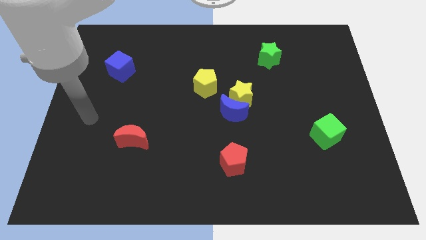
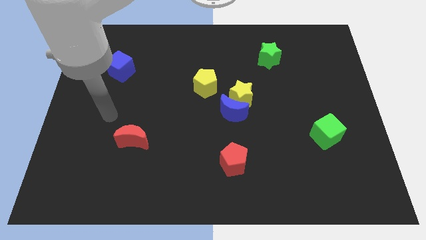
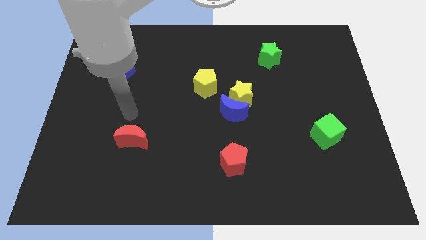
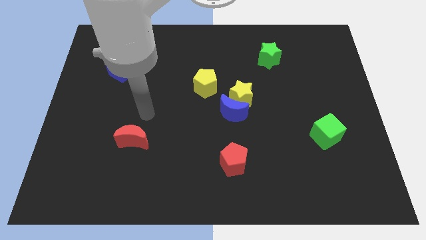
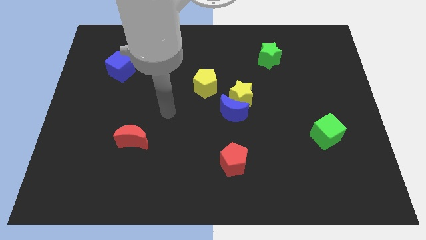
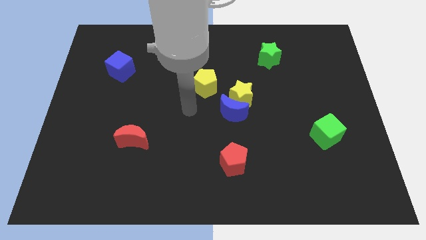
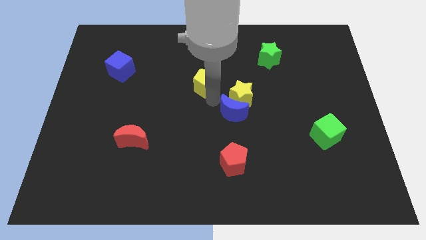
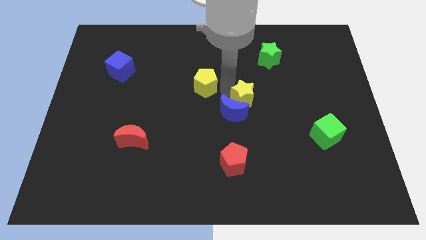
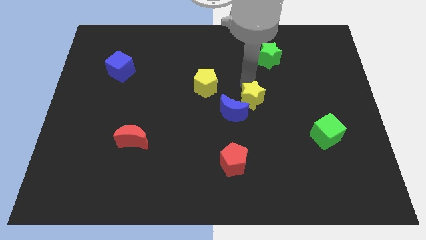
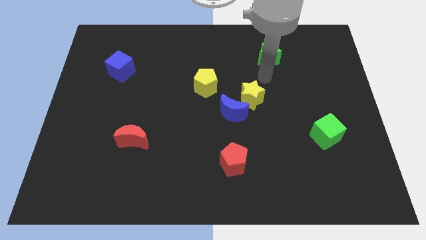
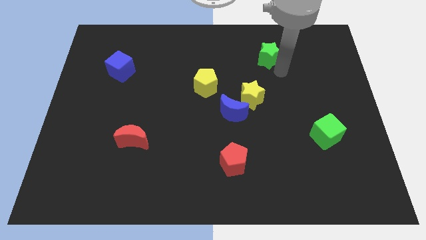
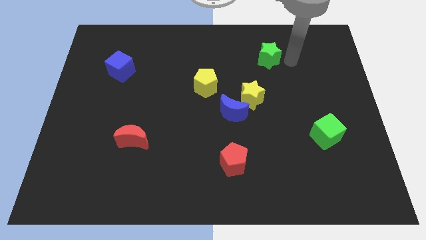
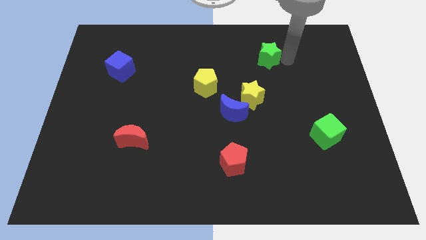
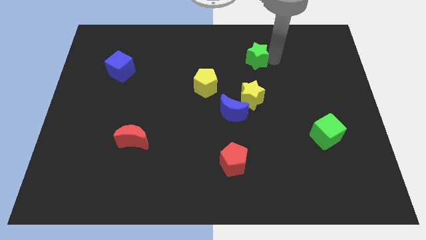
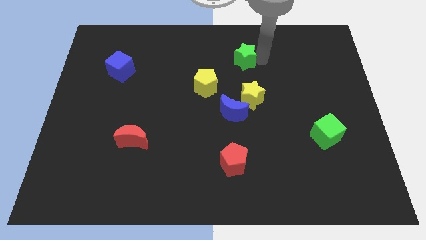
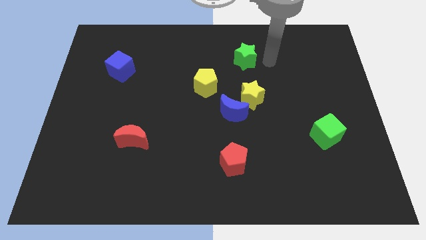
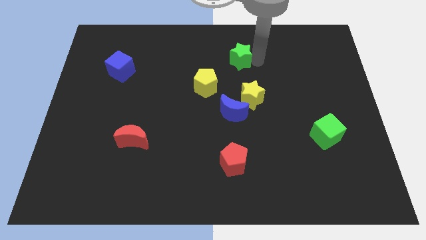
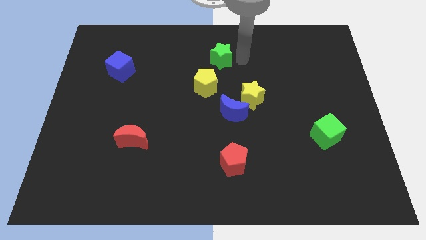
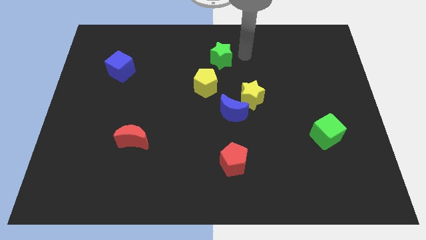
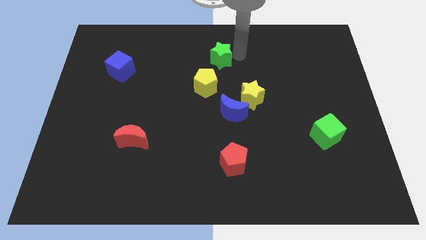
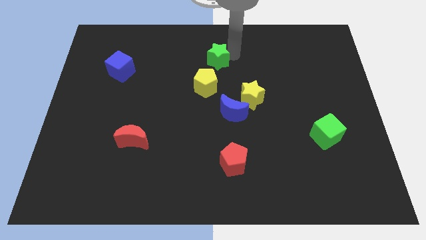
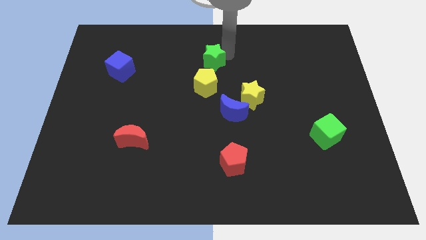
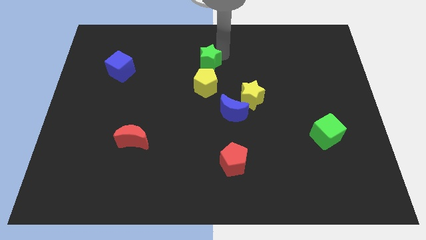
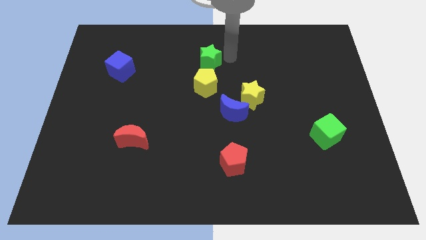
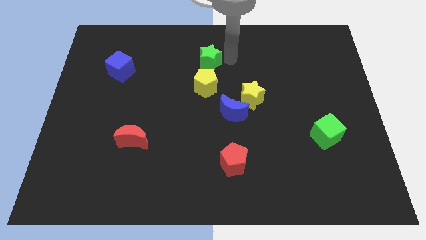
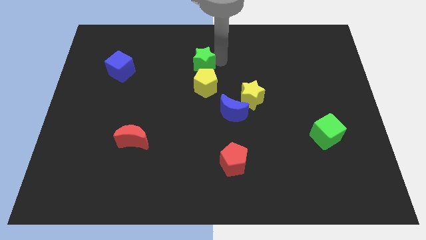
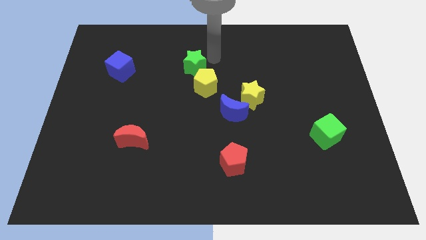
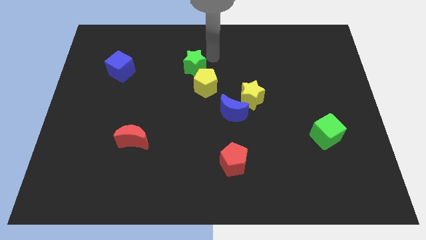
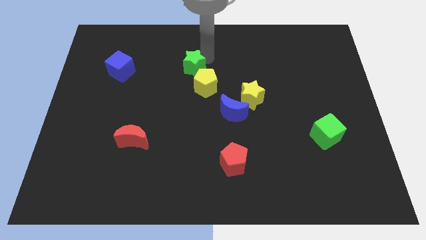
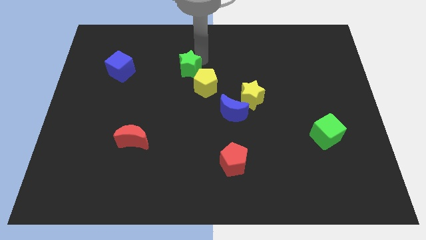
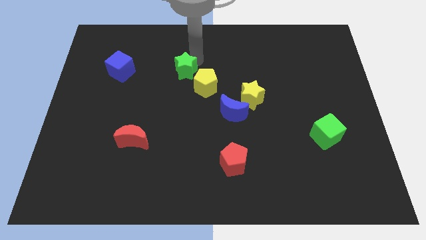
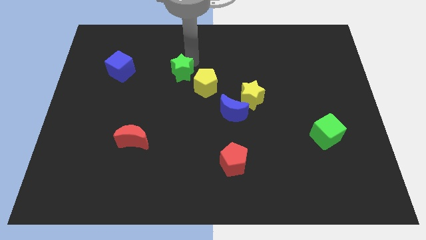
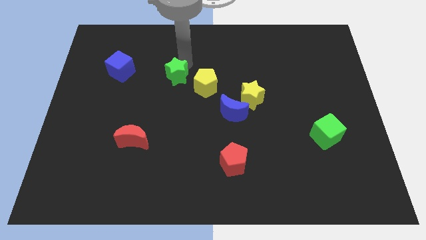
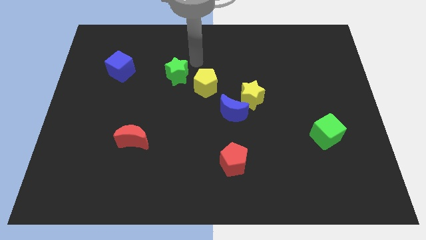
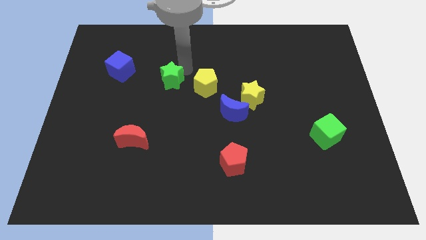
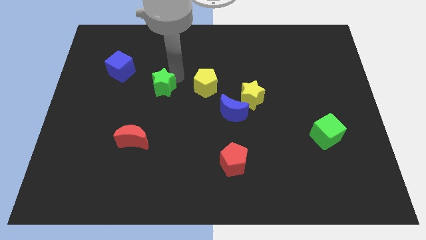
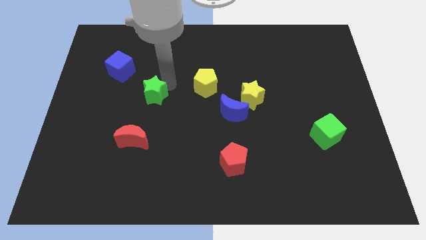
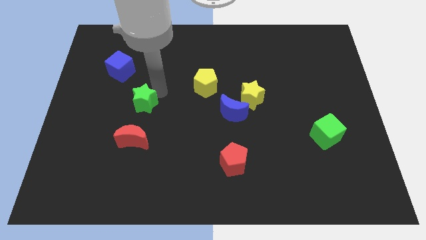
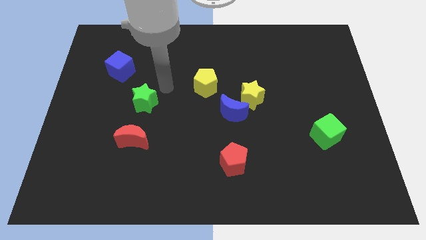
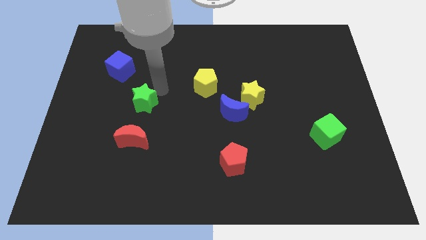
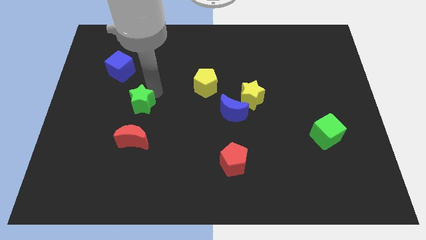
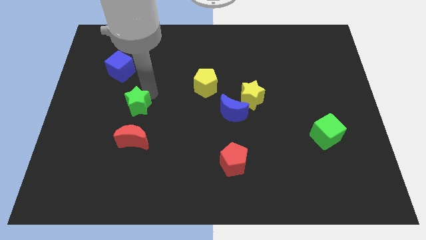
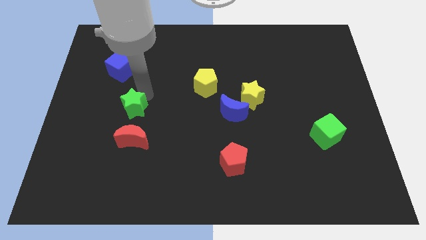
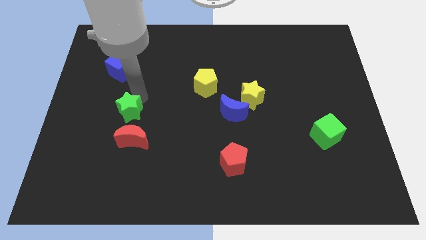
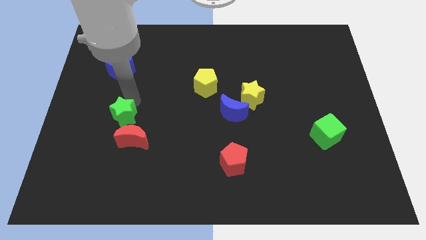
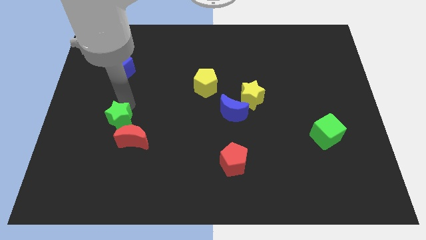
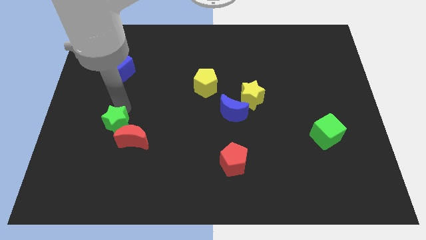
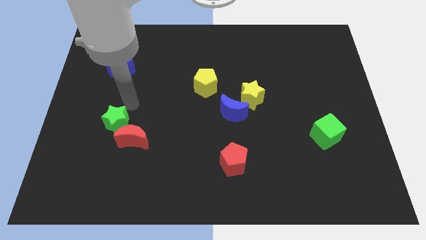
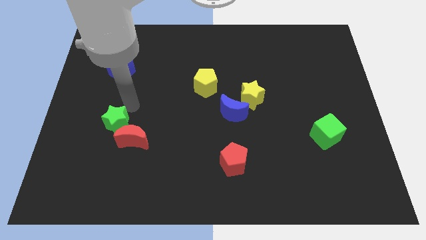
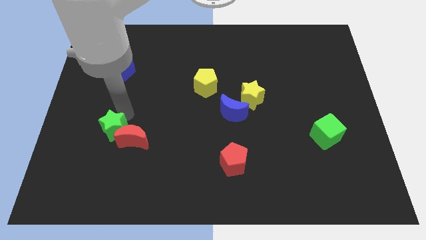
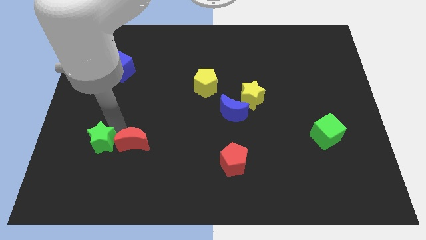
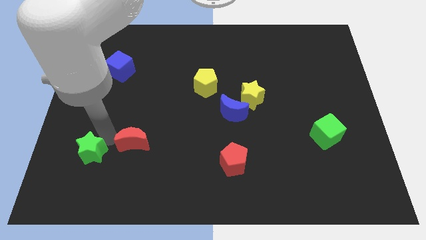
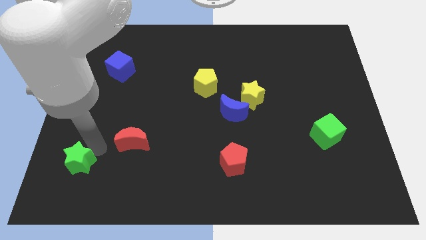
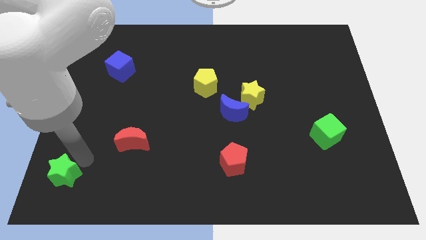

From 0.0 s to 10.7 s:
push the green star to the bottom left corner

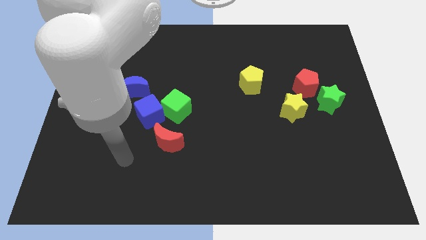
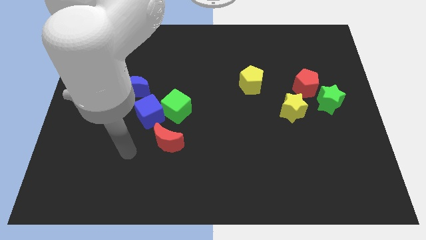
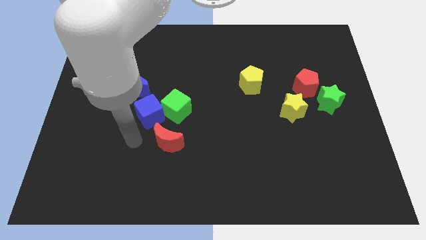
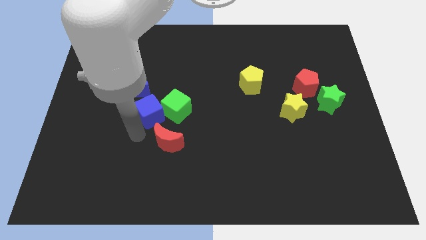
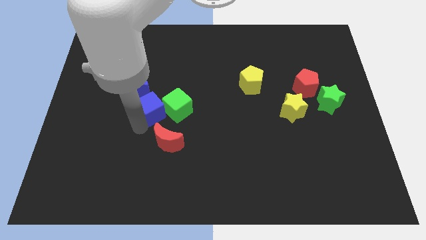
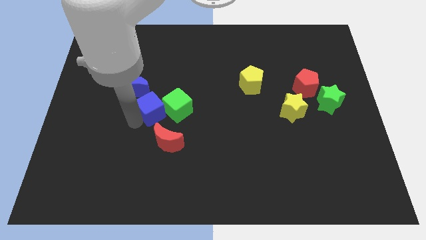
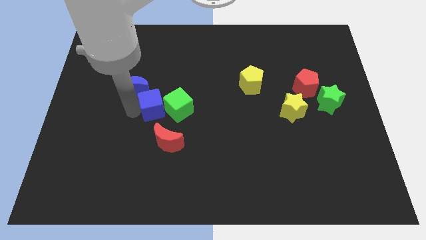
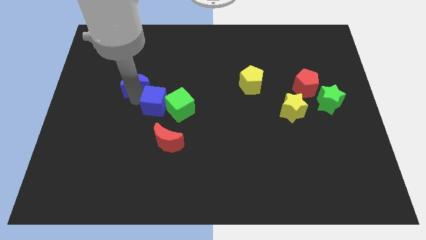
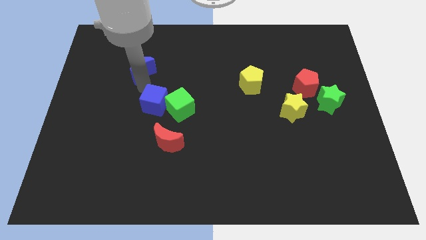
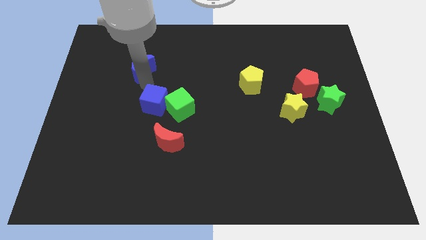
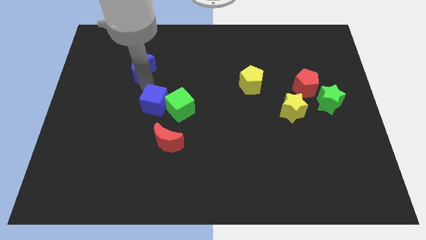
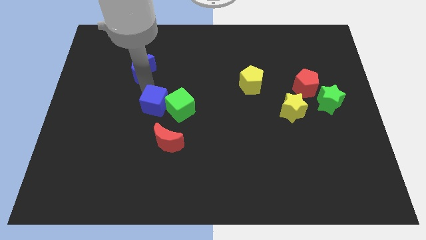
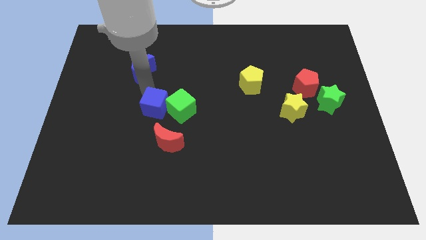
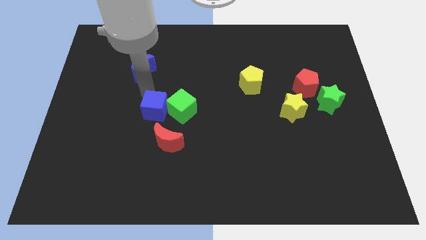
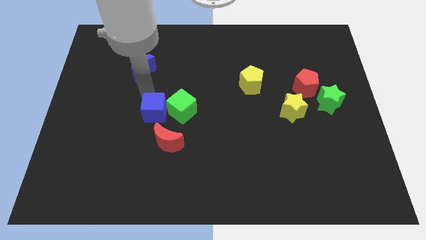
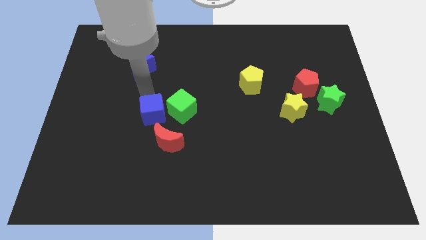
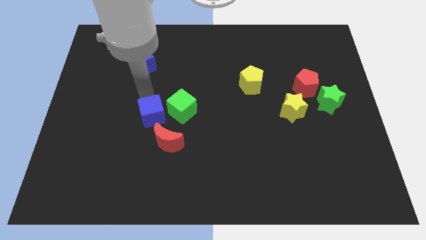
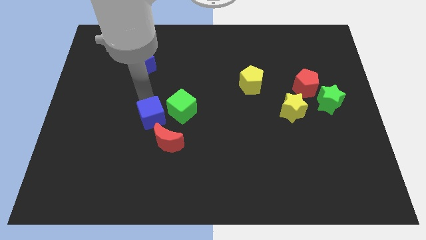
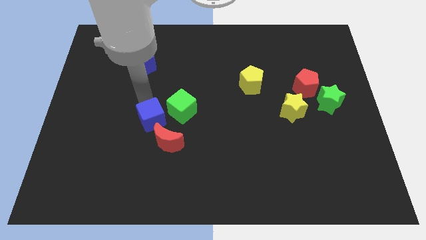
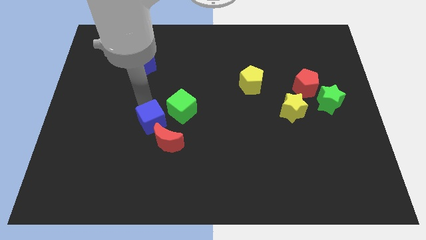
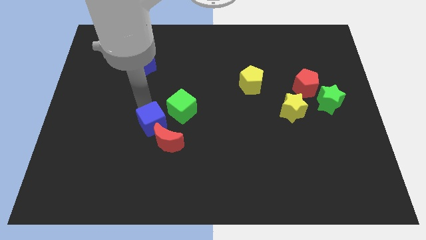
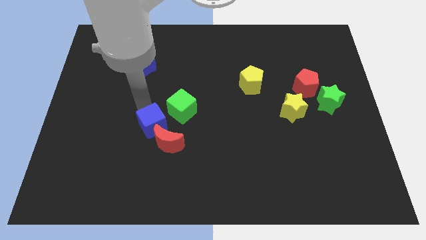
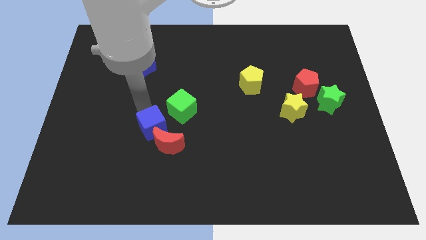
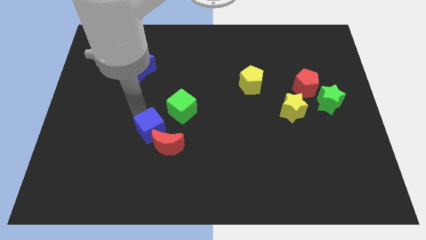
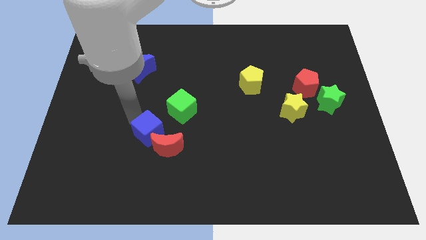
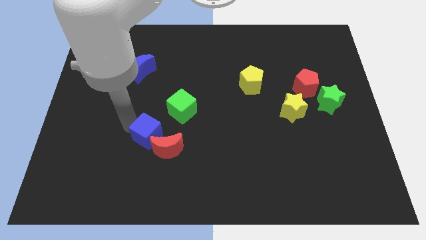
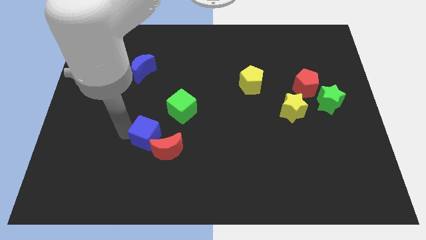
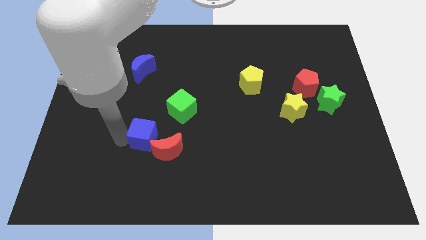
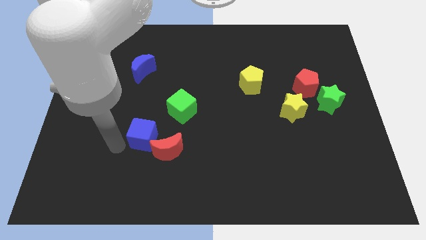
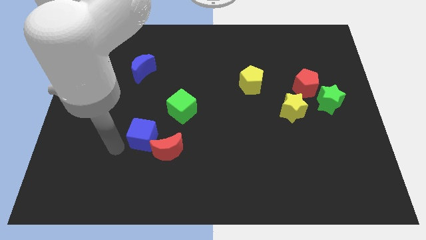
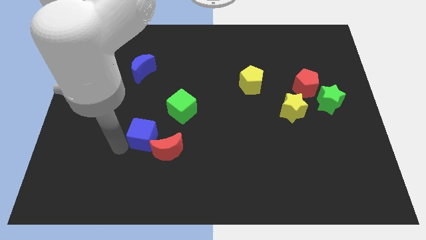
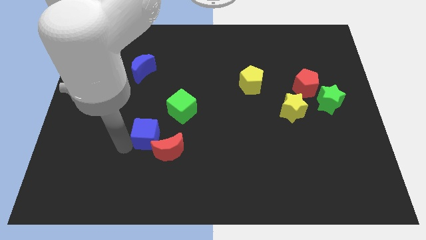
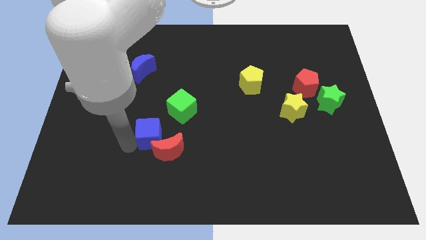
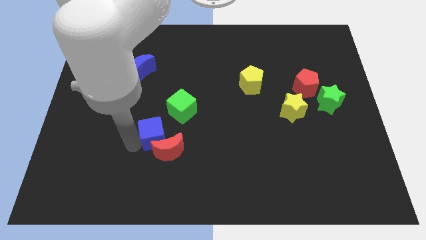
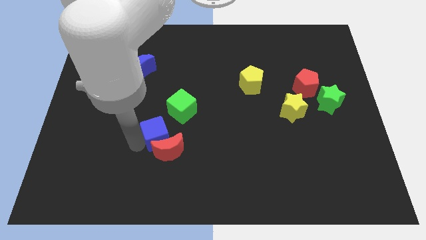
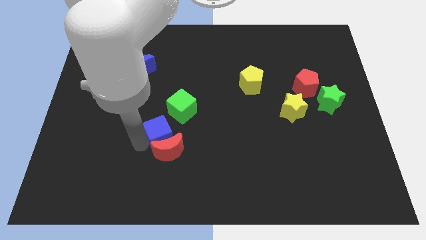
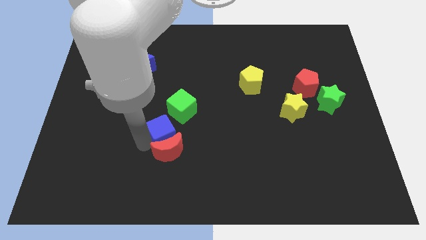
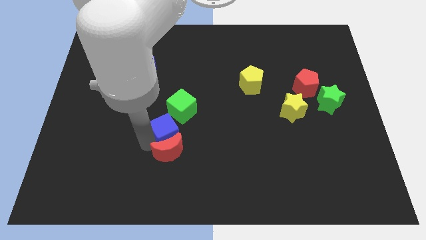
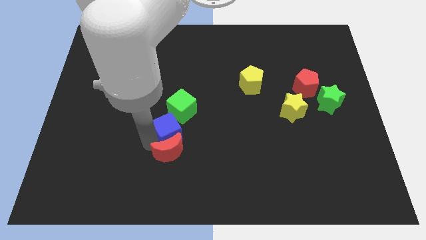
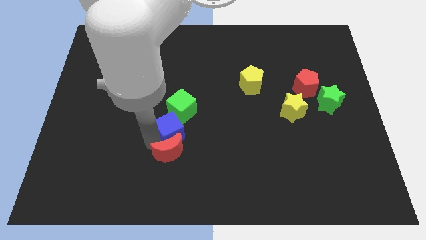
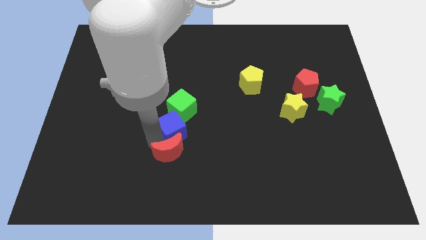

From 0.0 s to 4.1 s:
slide the blue cube to the middle
